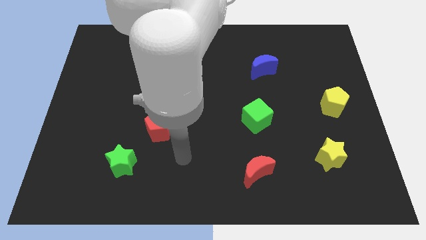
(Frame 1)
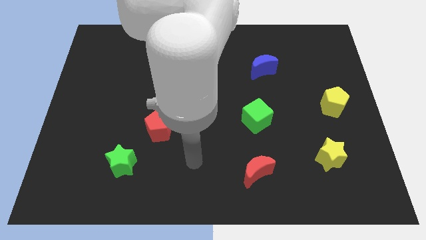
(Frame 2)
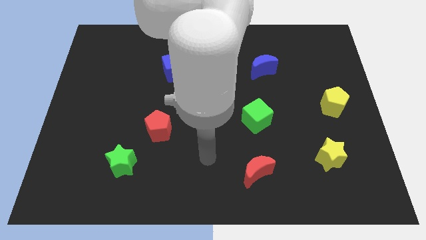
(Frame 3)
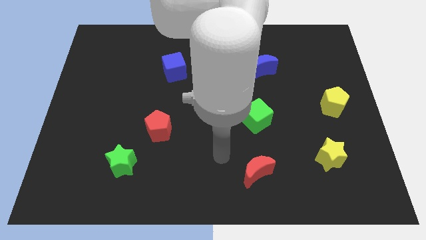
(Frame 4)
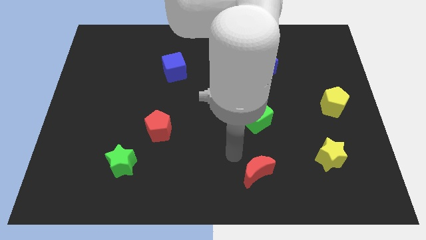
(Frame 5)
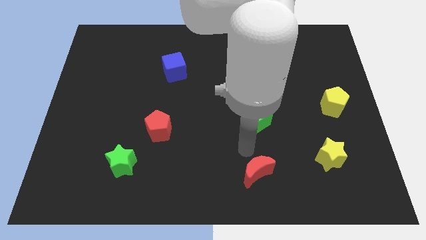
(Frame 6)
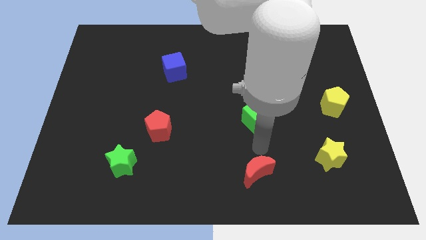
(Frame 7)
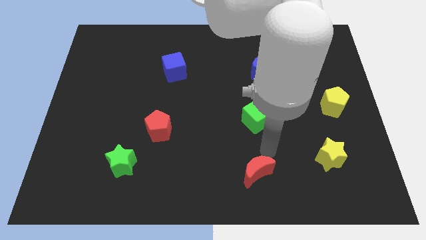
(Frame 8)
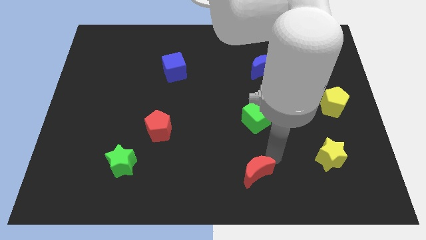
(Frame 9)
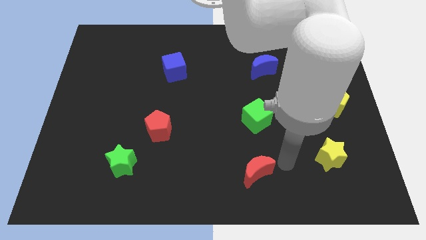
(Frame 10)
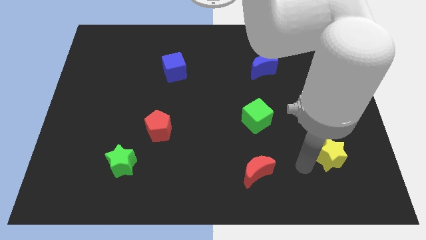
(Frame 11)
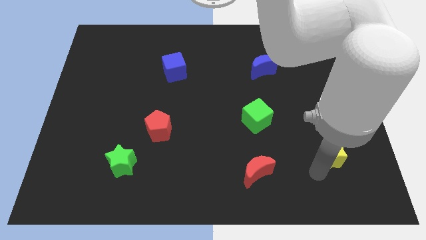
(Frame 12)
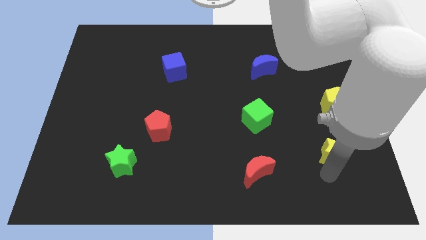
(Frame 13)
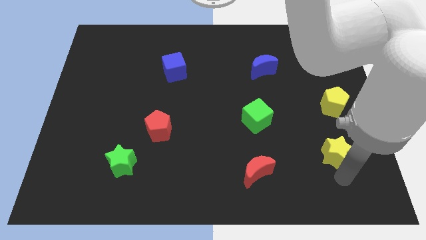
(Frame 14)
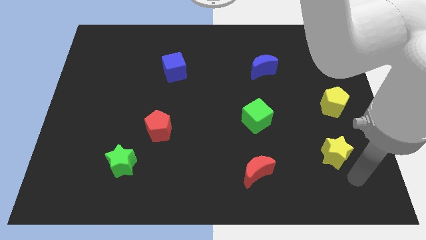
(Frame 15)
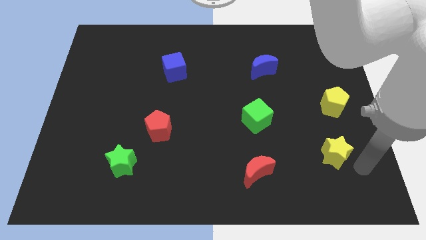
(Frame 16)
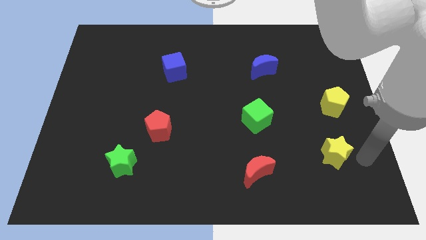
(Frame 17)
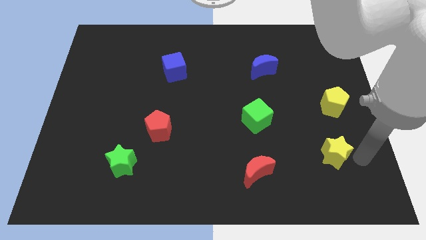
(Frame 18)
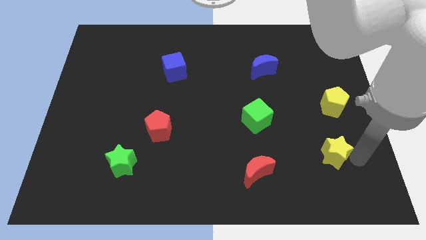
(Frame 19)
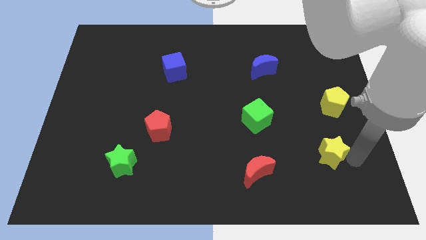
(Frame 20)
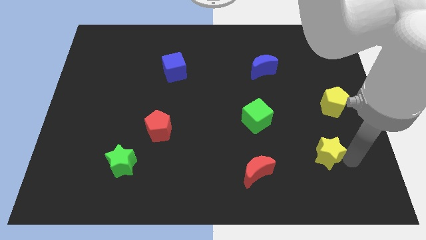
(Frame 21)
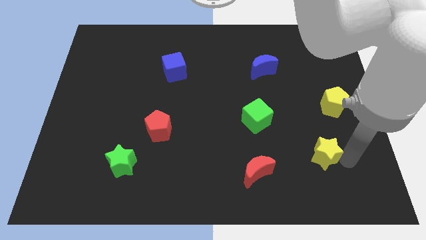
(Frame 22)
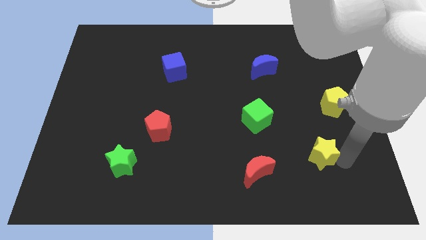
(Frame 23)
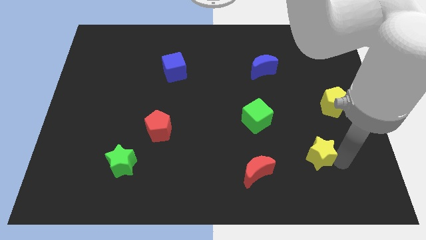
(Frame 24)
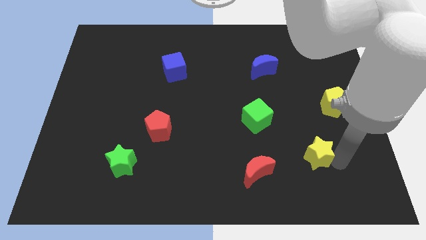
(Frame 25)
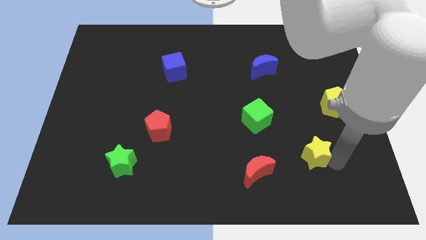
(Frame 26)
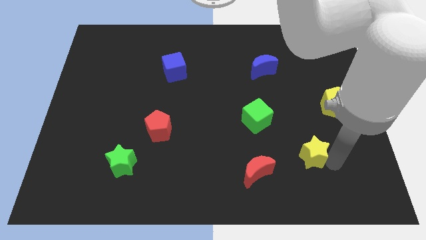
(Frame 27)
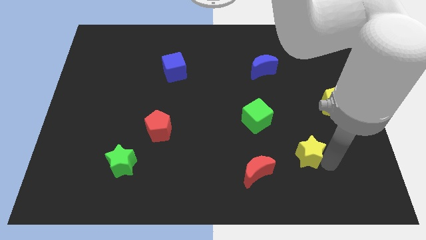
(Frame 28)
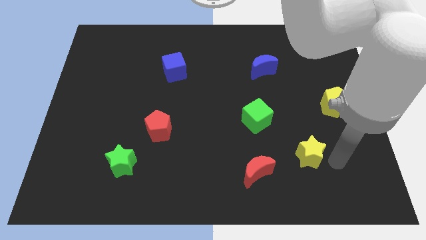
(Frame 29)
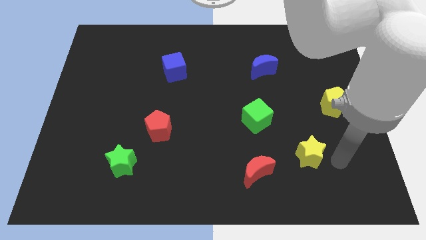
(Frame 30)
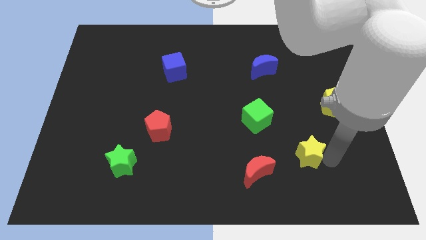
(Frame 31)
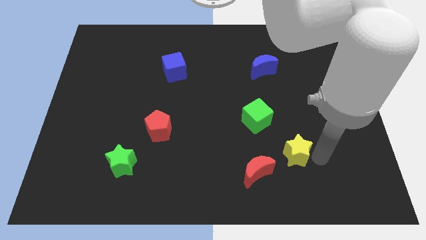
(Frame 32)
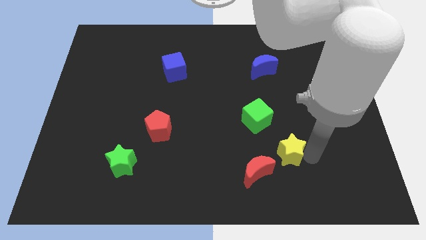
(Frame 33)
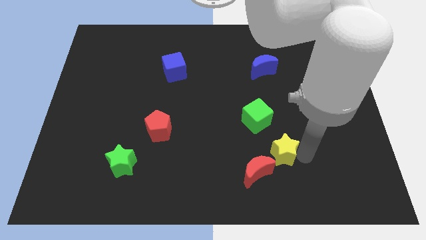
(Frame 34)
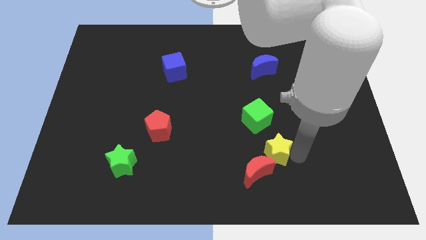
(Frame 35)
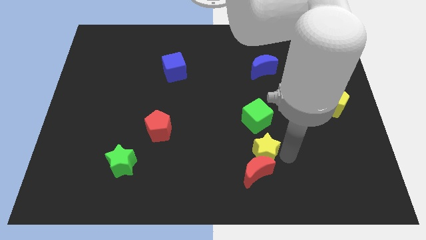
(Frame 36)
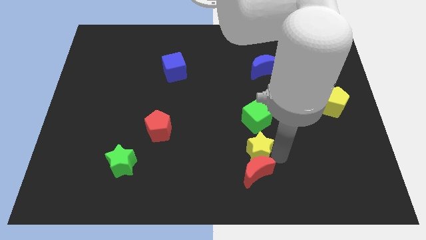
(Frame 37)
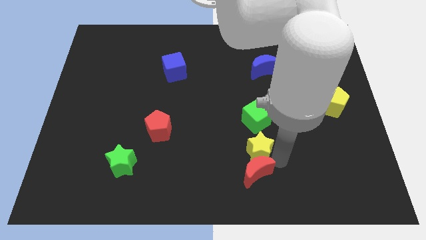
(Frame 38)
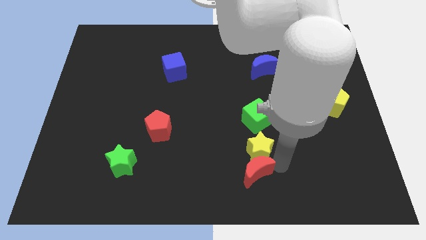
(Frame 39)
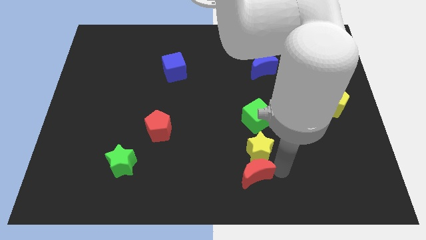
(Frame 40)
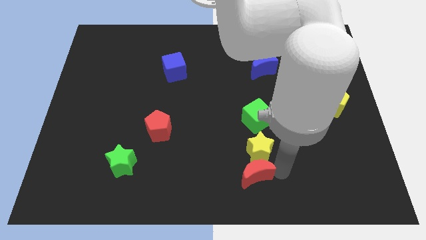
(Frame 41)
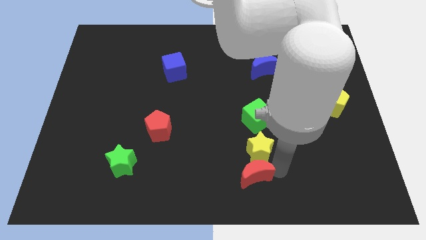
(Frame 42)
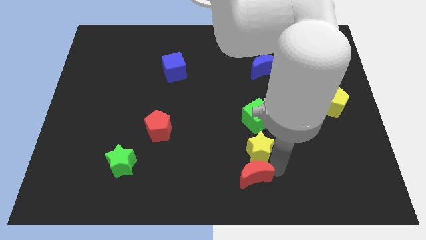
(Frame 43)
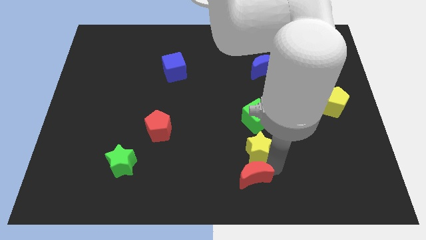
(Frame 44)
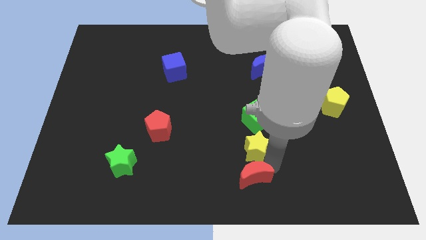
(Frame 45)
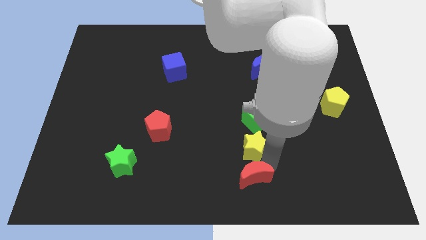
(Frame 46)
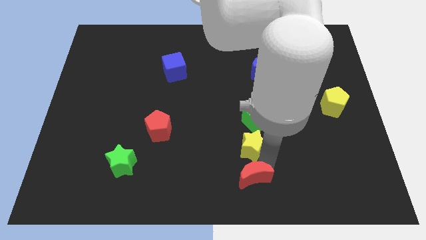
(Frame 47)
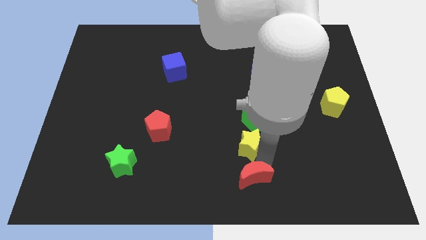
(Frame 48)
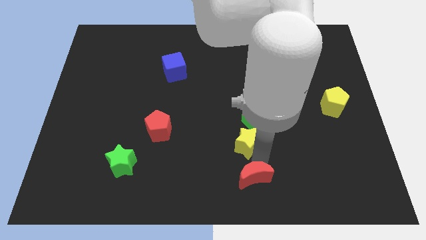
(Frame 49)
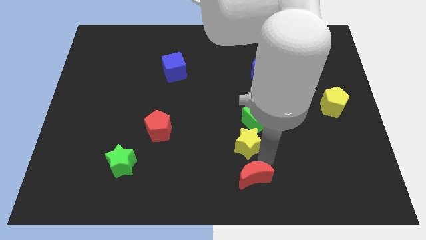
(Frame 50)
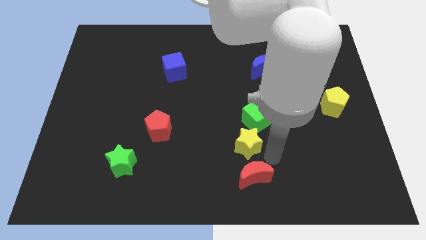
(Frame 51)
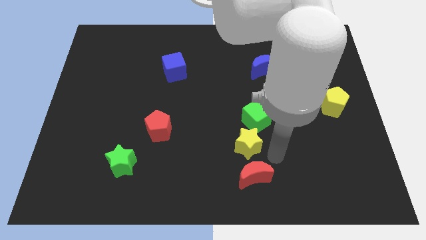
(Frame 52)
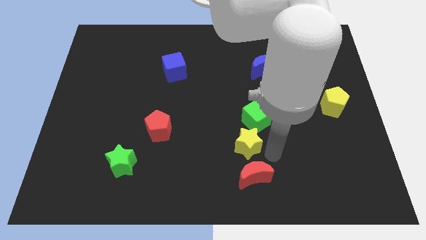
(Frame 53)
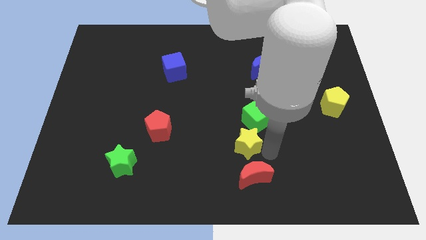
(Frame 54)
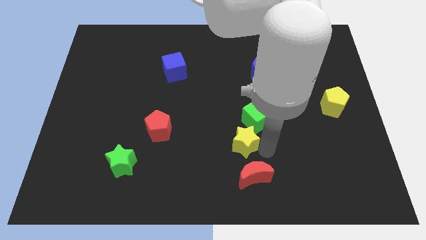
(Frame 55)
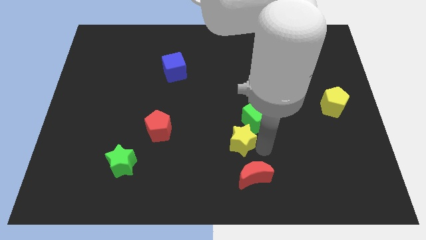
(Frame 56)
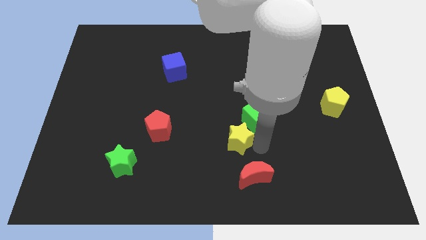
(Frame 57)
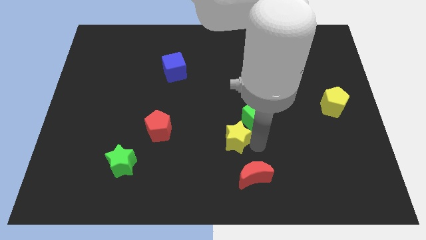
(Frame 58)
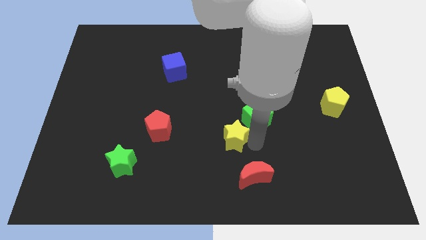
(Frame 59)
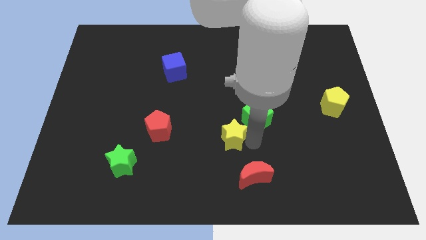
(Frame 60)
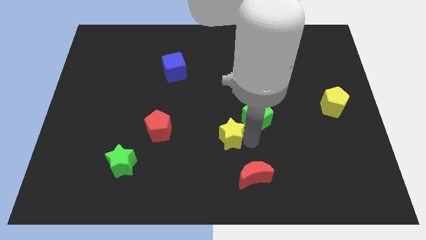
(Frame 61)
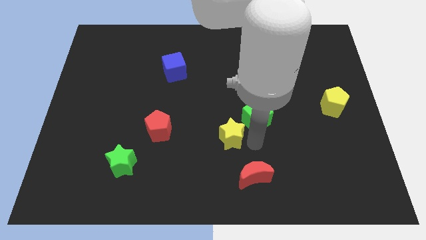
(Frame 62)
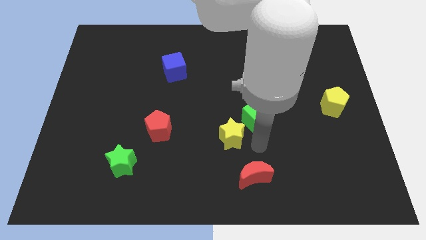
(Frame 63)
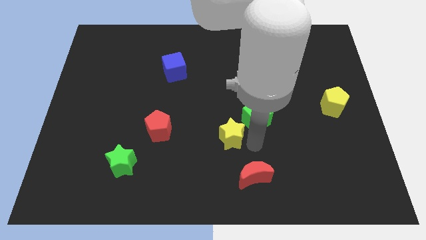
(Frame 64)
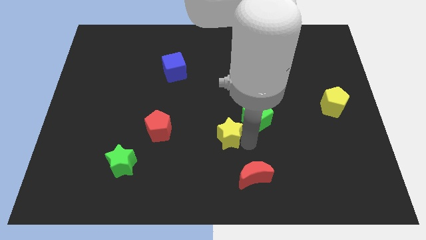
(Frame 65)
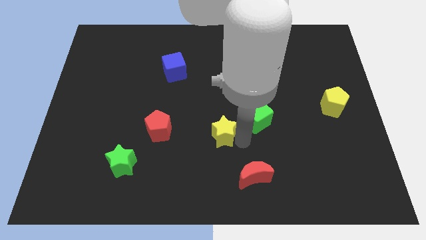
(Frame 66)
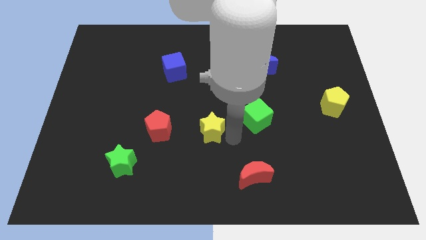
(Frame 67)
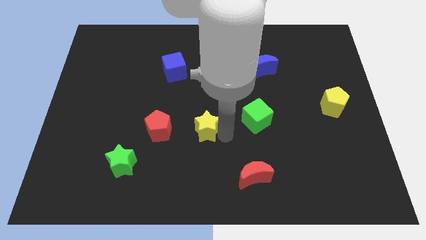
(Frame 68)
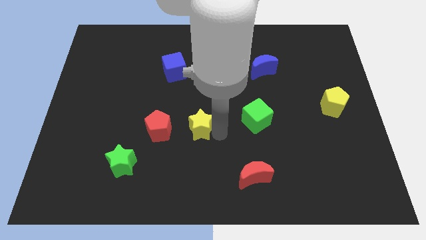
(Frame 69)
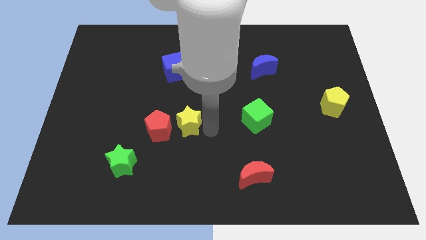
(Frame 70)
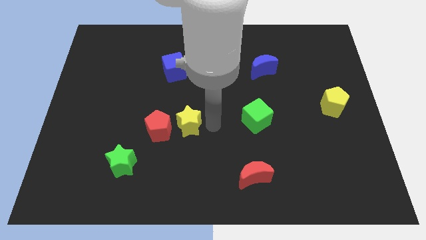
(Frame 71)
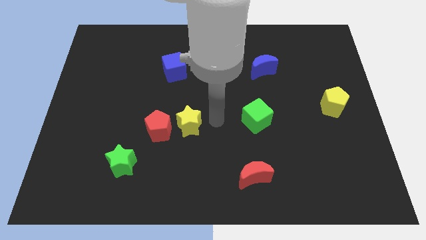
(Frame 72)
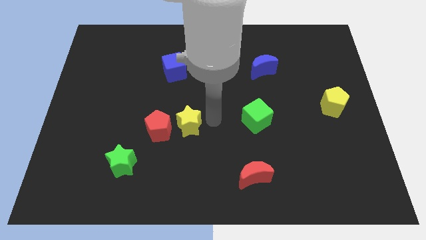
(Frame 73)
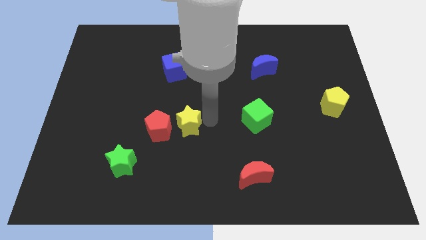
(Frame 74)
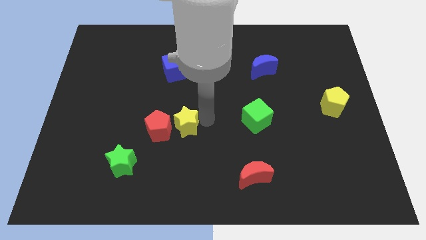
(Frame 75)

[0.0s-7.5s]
put the yellow star to the red pentagon
